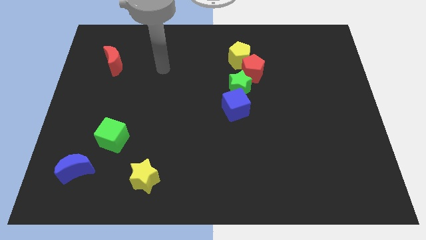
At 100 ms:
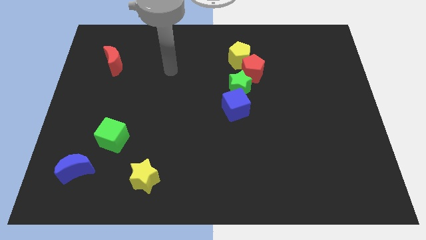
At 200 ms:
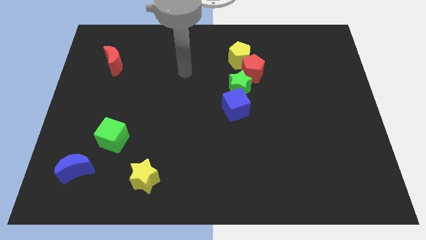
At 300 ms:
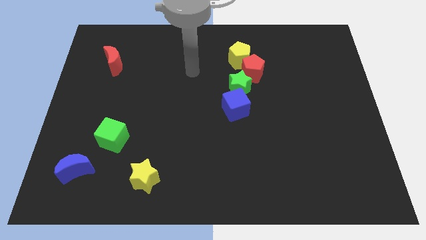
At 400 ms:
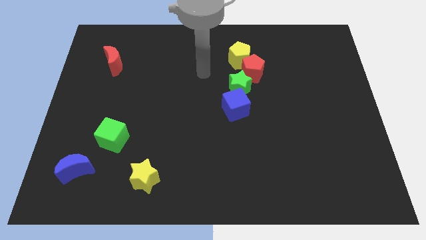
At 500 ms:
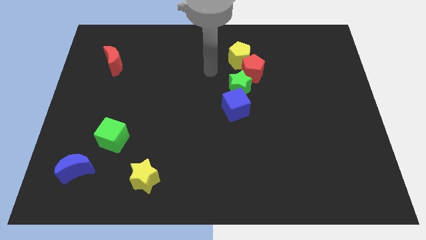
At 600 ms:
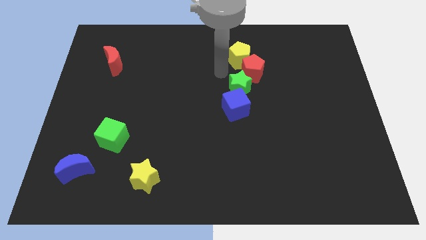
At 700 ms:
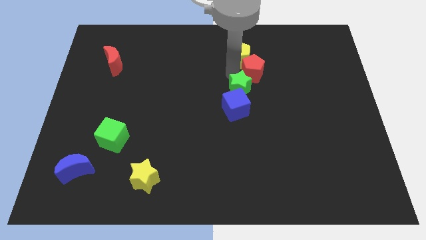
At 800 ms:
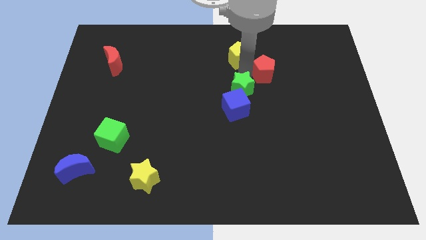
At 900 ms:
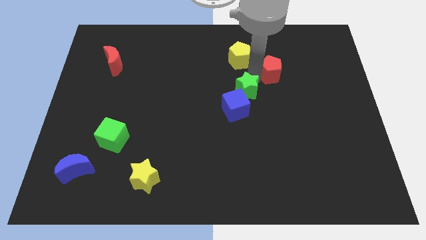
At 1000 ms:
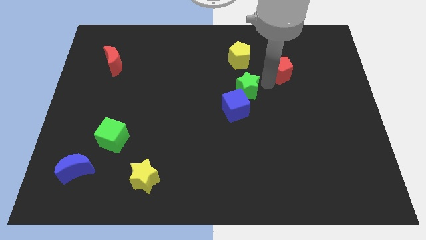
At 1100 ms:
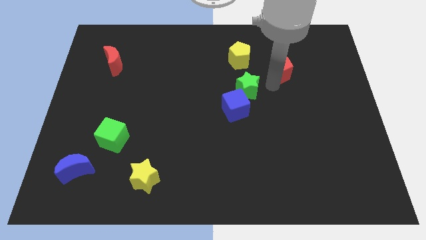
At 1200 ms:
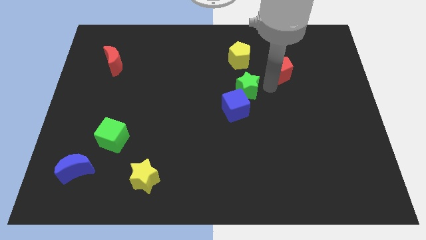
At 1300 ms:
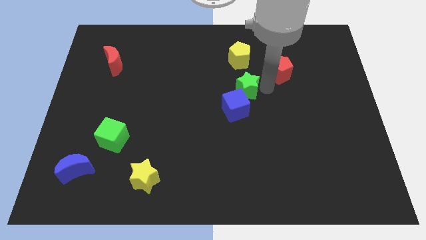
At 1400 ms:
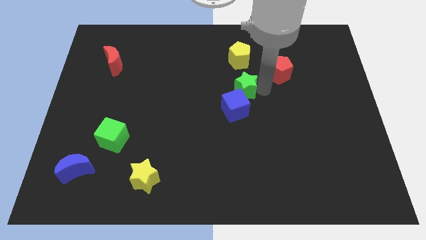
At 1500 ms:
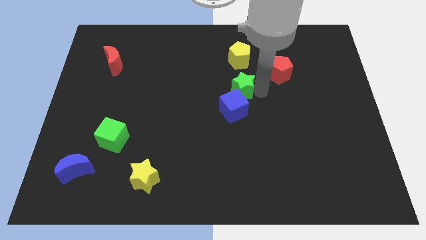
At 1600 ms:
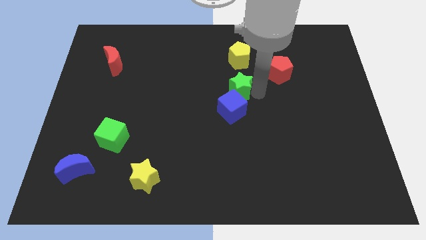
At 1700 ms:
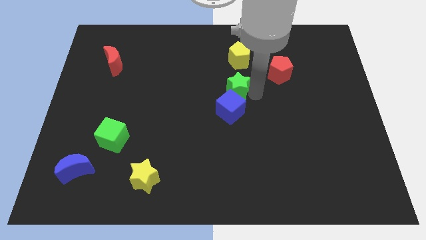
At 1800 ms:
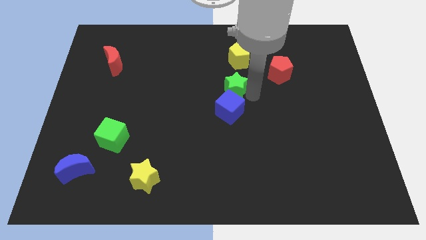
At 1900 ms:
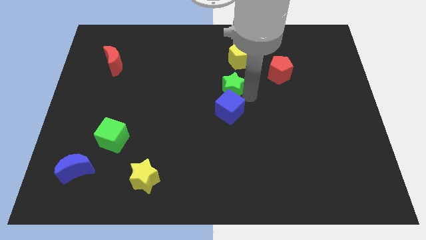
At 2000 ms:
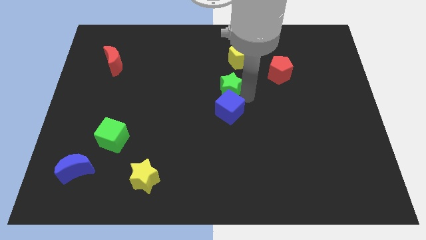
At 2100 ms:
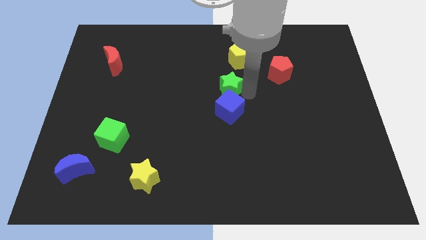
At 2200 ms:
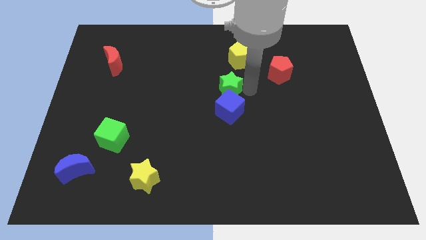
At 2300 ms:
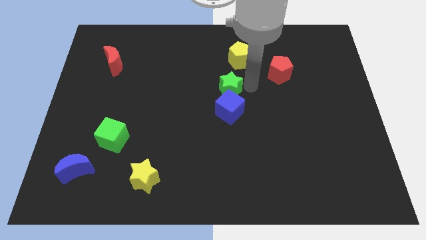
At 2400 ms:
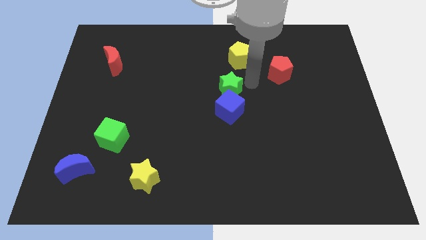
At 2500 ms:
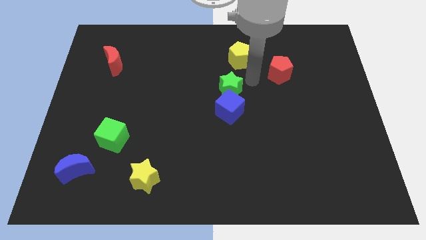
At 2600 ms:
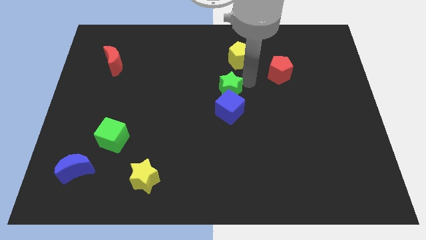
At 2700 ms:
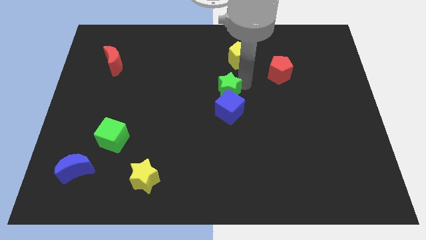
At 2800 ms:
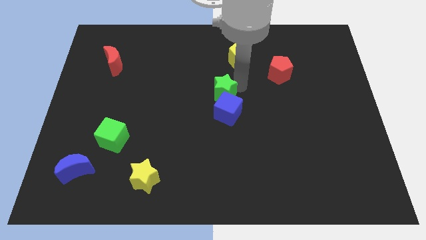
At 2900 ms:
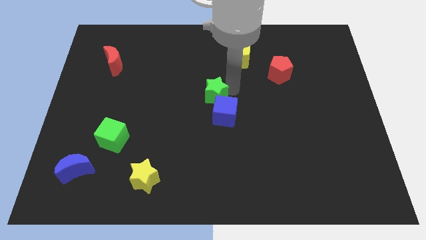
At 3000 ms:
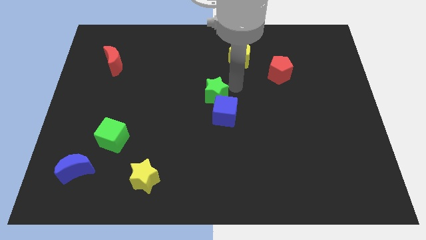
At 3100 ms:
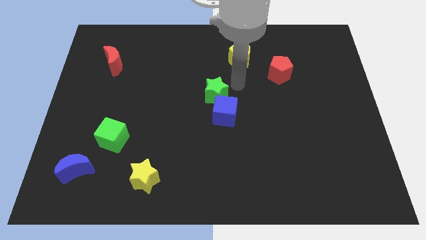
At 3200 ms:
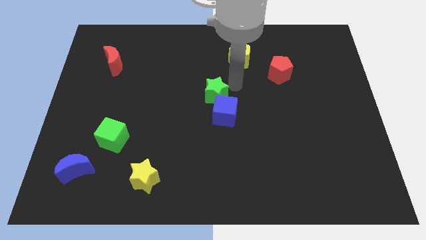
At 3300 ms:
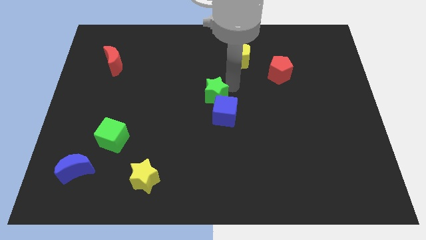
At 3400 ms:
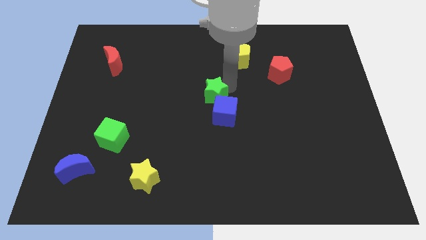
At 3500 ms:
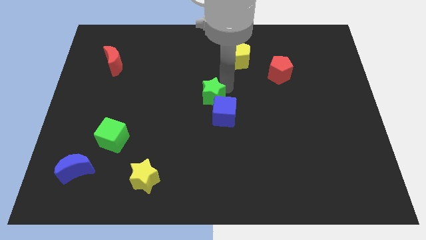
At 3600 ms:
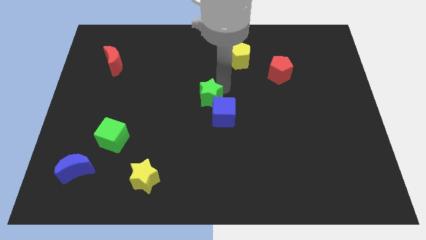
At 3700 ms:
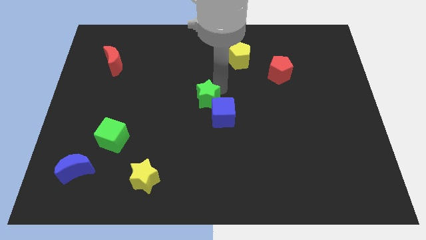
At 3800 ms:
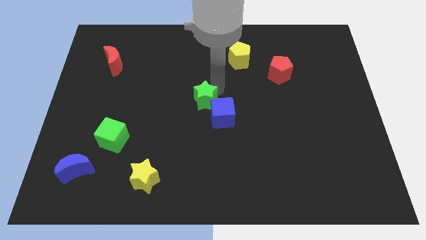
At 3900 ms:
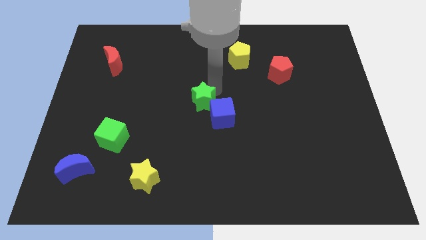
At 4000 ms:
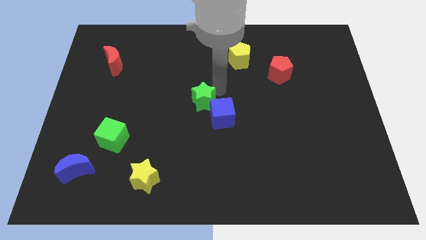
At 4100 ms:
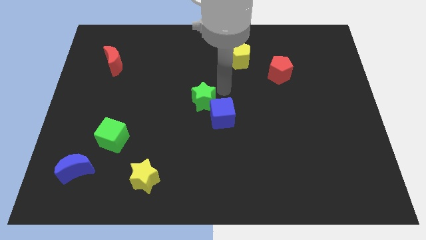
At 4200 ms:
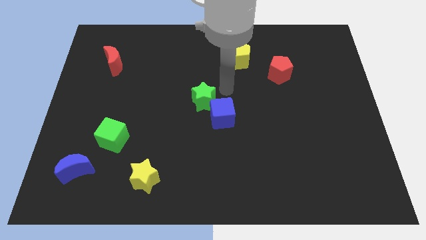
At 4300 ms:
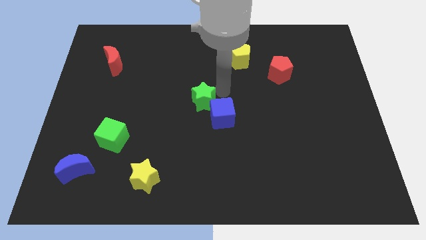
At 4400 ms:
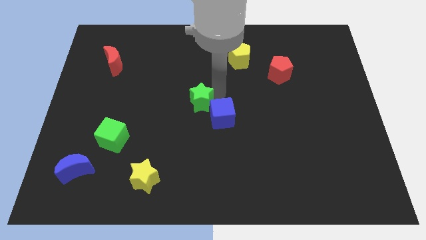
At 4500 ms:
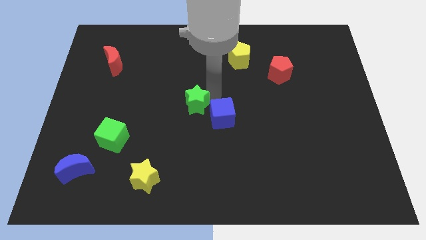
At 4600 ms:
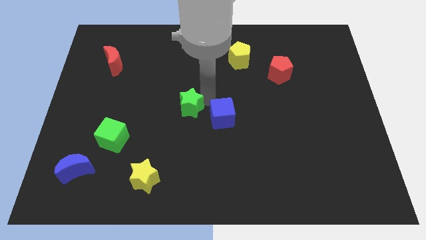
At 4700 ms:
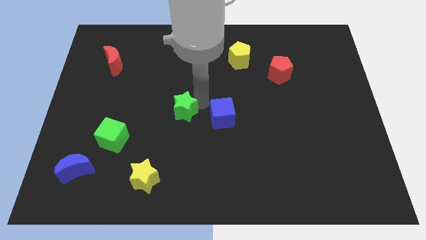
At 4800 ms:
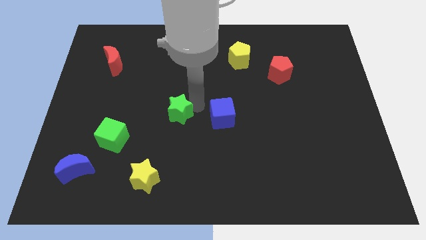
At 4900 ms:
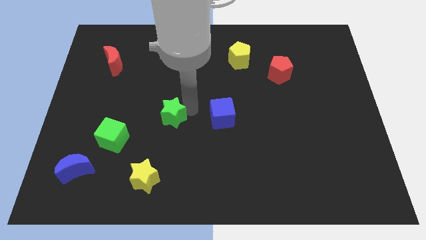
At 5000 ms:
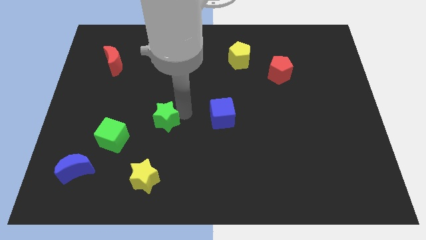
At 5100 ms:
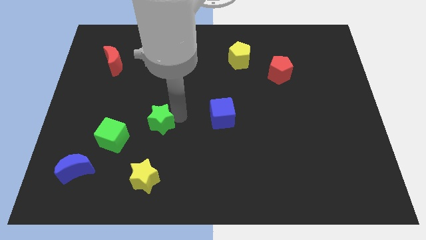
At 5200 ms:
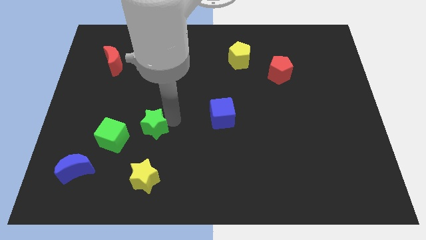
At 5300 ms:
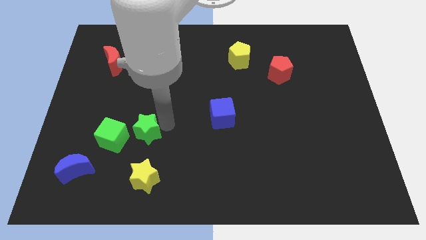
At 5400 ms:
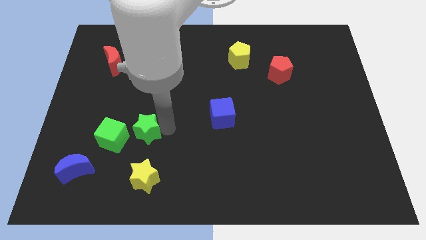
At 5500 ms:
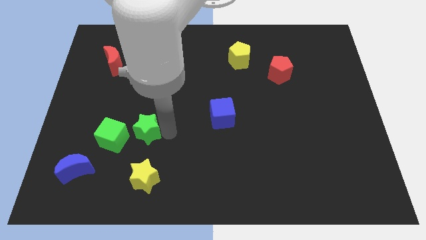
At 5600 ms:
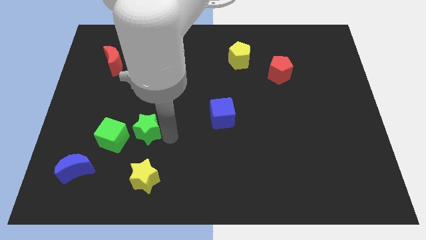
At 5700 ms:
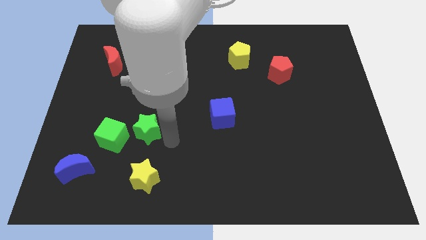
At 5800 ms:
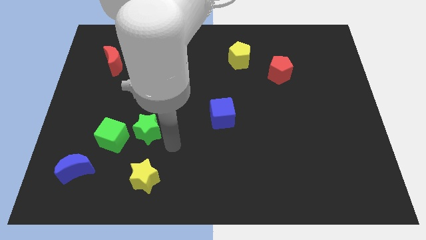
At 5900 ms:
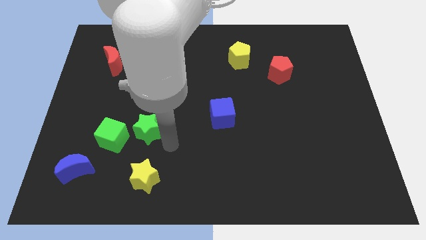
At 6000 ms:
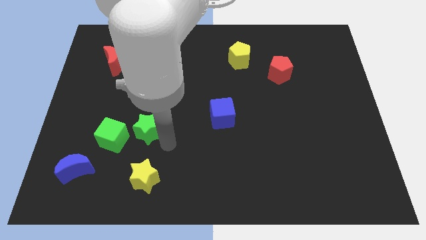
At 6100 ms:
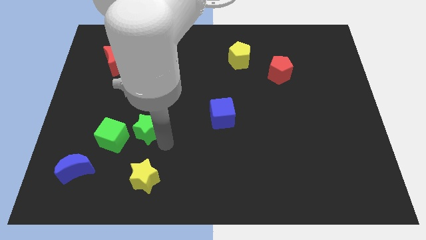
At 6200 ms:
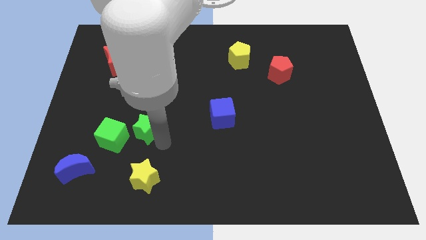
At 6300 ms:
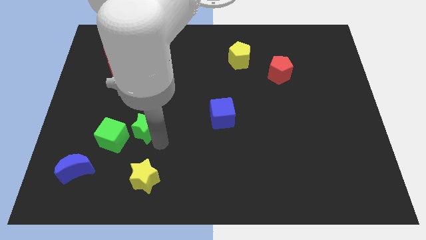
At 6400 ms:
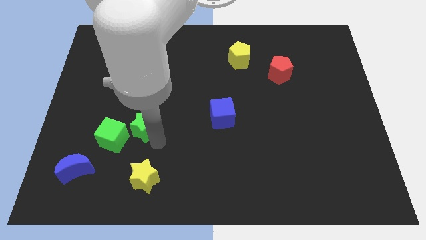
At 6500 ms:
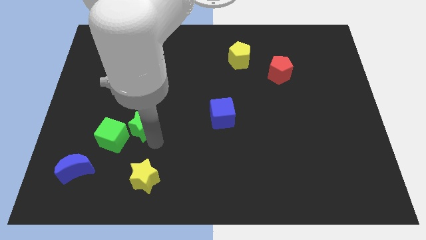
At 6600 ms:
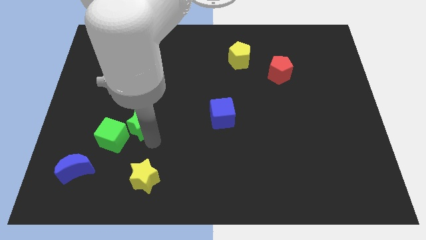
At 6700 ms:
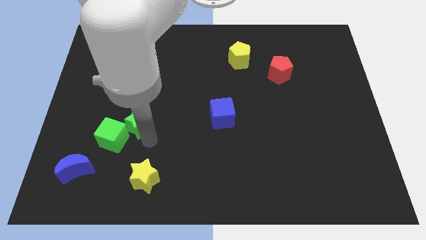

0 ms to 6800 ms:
push the green star close to the green cube
